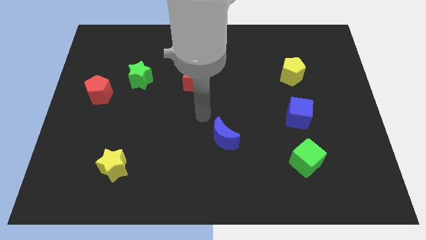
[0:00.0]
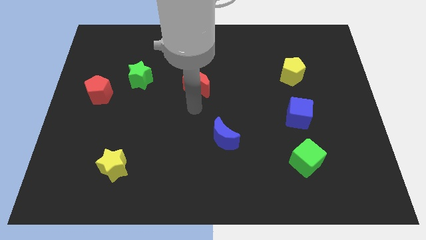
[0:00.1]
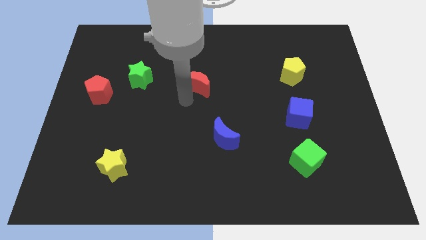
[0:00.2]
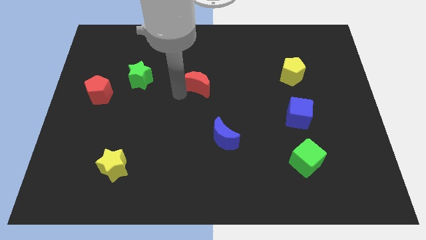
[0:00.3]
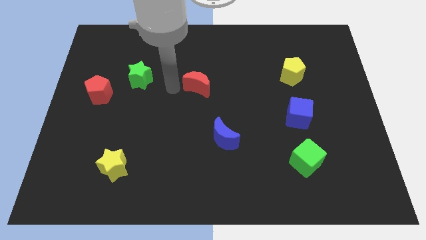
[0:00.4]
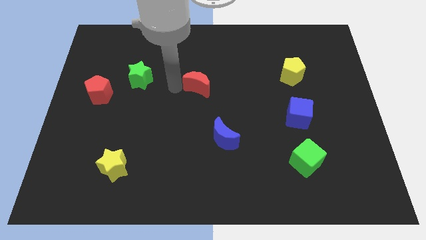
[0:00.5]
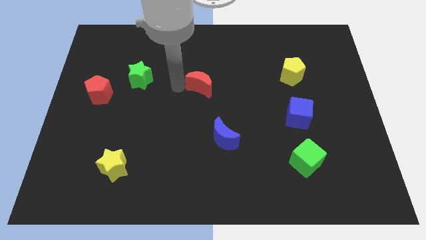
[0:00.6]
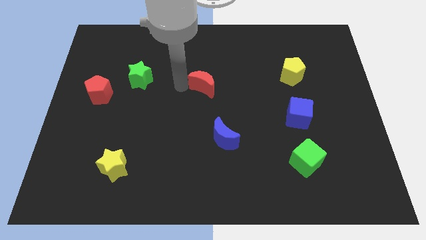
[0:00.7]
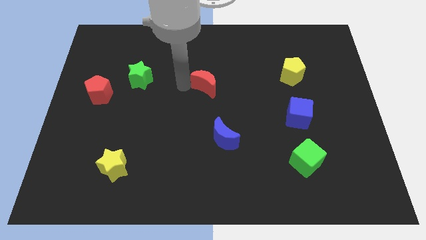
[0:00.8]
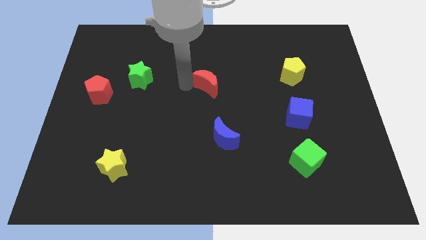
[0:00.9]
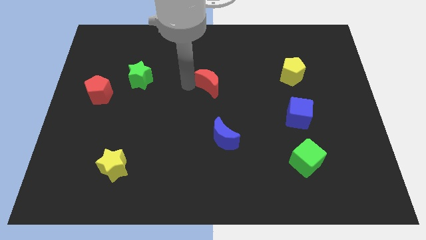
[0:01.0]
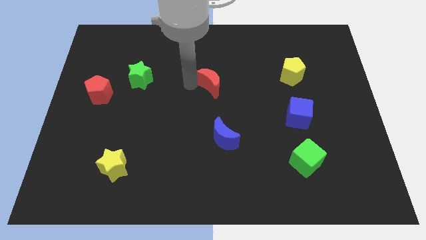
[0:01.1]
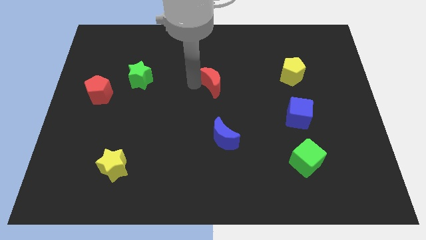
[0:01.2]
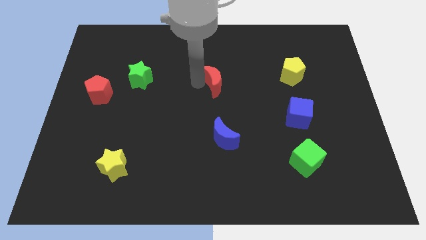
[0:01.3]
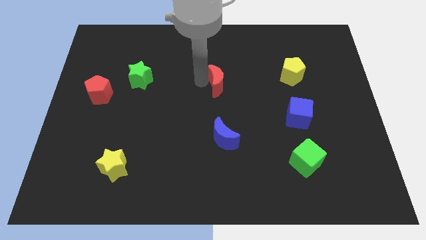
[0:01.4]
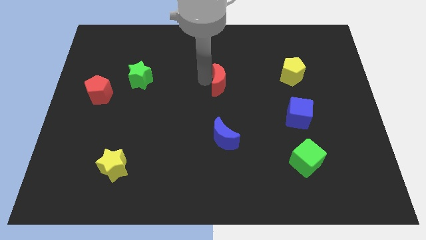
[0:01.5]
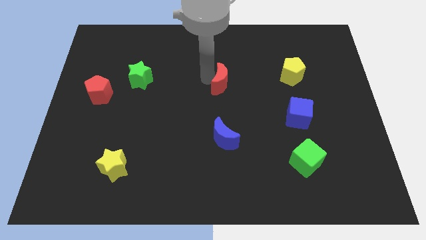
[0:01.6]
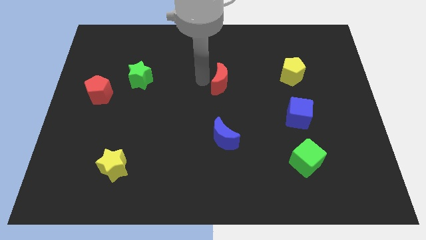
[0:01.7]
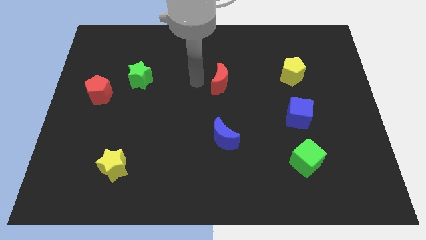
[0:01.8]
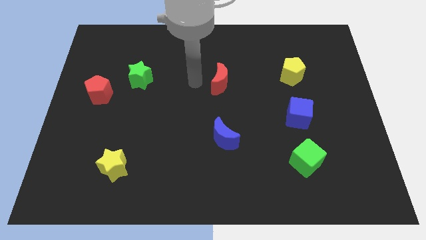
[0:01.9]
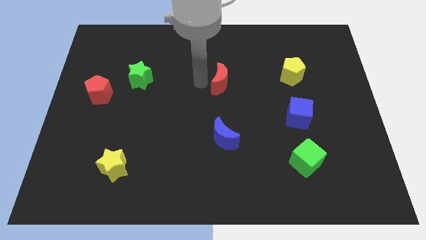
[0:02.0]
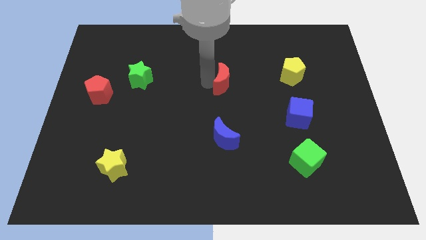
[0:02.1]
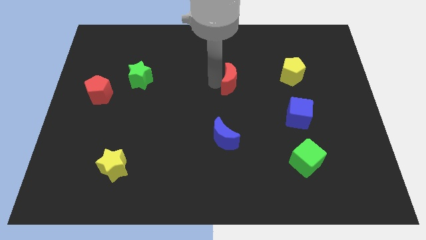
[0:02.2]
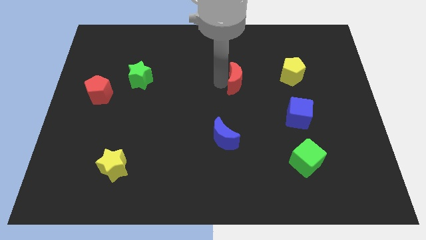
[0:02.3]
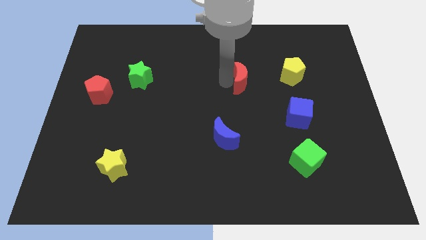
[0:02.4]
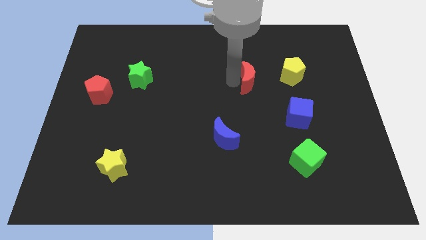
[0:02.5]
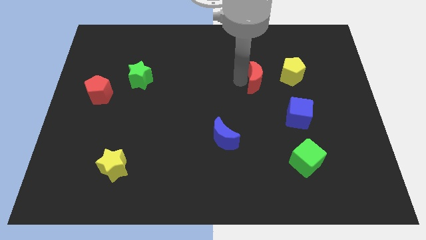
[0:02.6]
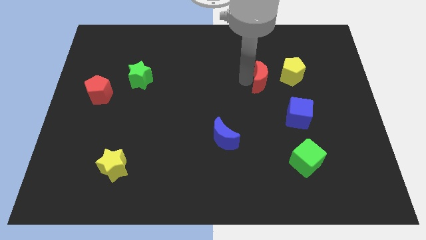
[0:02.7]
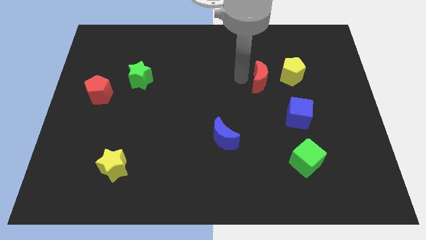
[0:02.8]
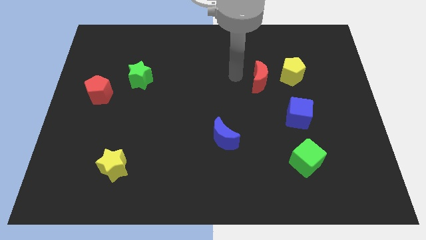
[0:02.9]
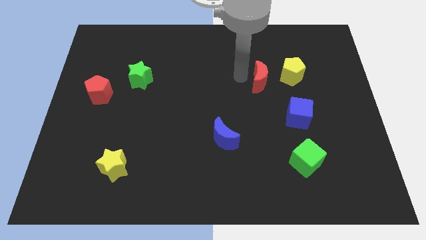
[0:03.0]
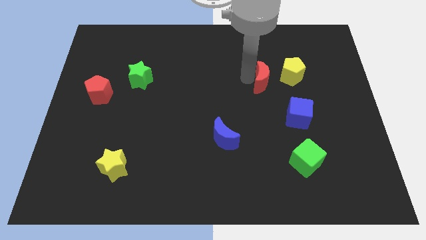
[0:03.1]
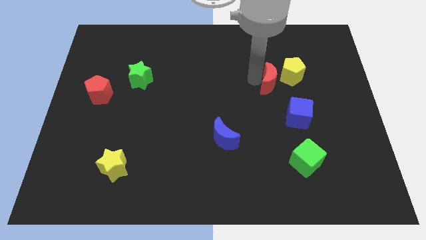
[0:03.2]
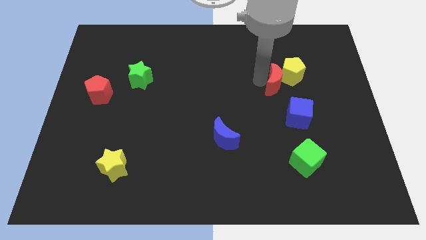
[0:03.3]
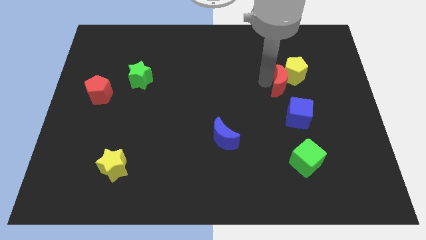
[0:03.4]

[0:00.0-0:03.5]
slide the red moon right

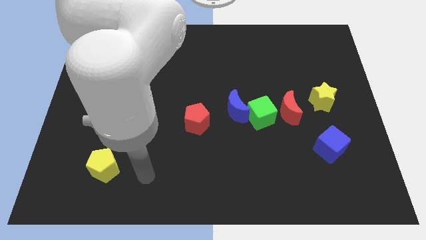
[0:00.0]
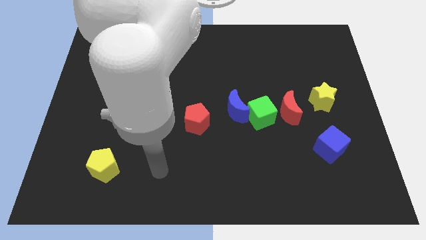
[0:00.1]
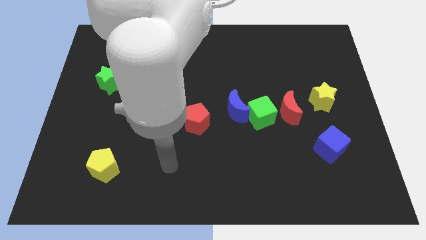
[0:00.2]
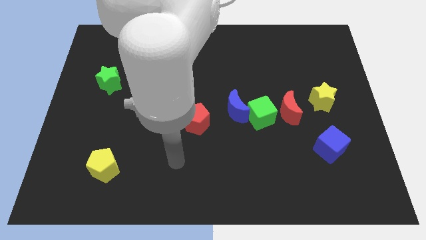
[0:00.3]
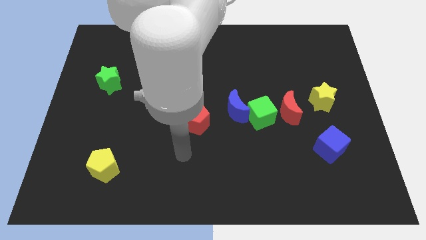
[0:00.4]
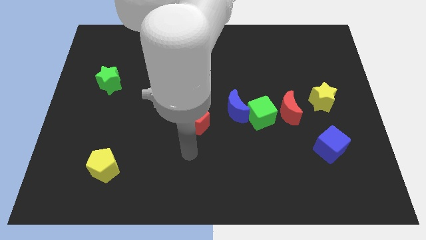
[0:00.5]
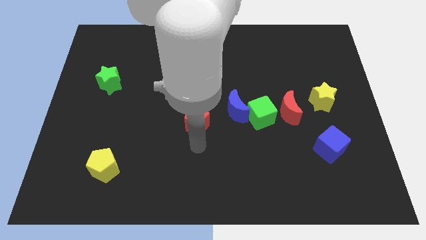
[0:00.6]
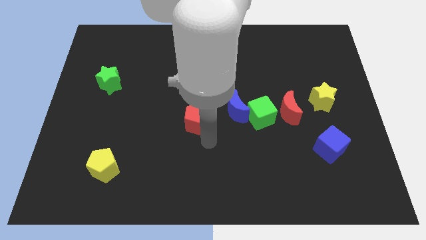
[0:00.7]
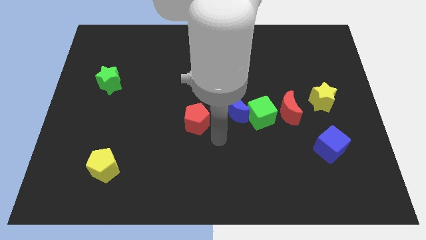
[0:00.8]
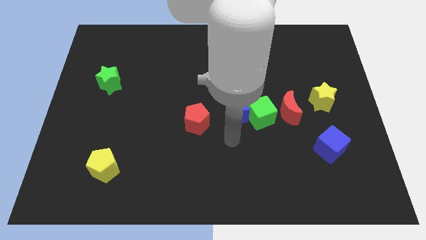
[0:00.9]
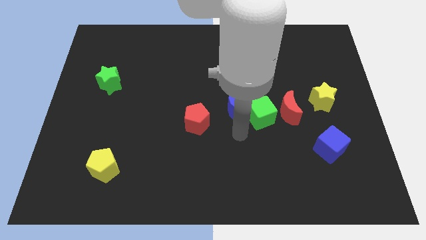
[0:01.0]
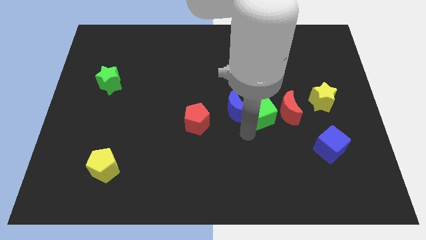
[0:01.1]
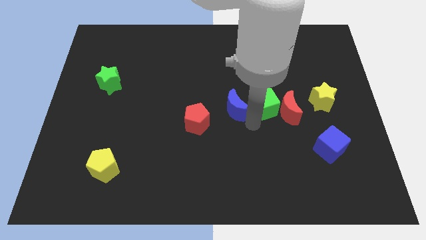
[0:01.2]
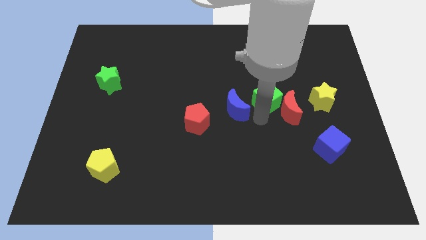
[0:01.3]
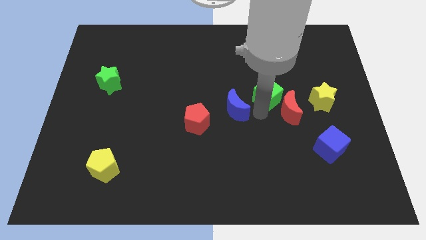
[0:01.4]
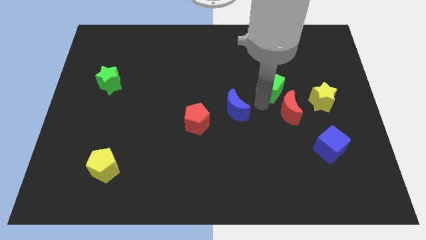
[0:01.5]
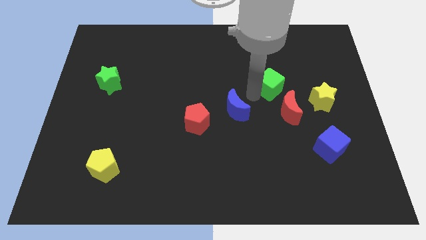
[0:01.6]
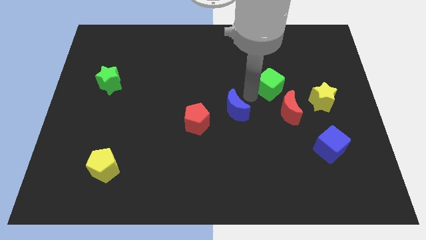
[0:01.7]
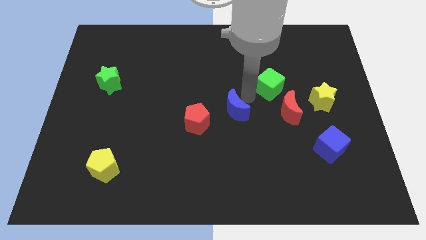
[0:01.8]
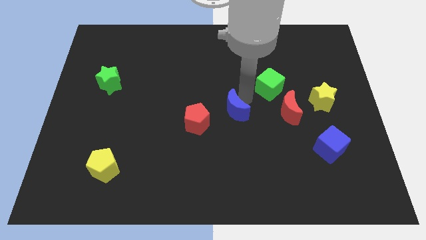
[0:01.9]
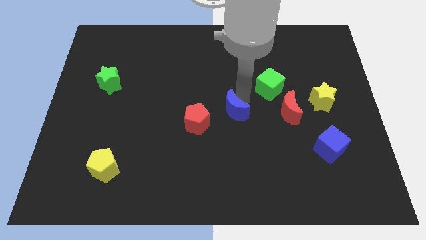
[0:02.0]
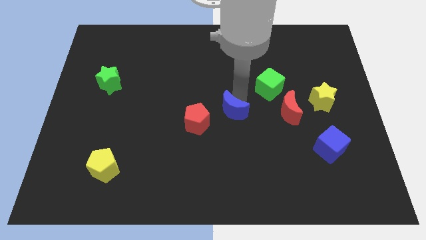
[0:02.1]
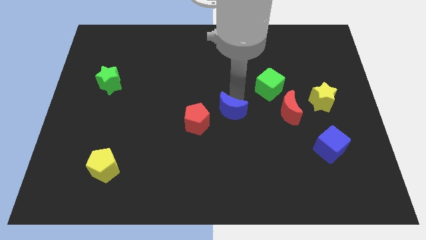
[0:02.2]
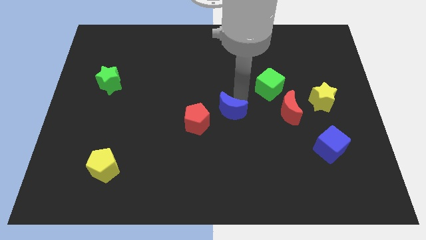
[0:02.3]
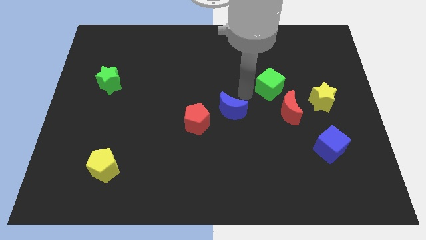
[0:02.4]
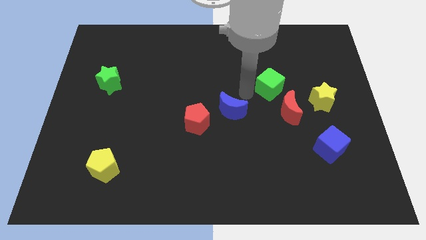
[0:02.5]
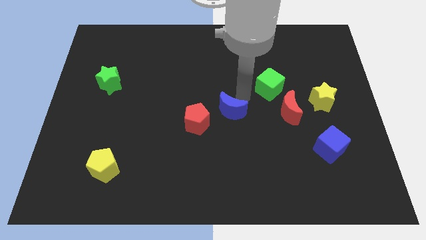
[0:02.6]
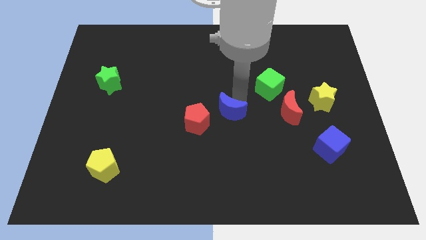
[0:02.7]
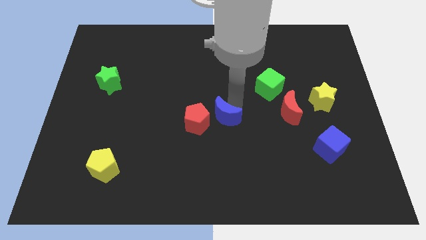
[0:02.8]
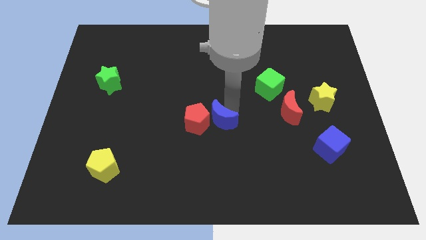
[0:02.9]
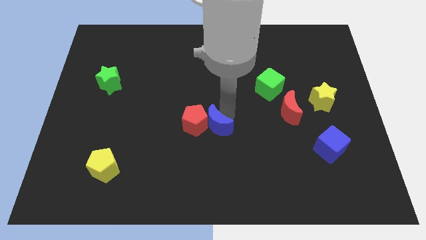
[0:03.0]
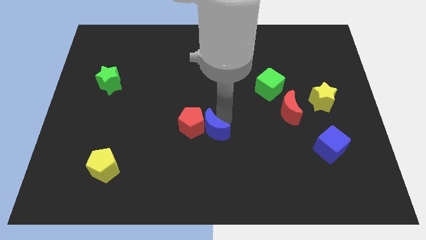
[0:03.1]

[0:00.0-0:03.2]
slide the blue moon a little bit down and to the left

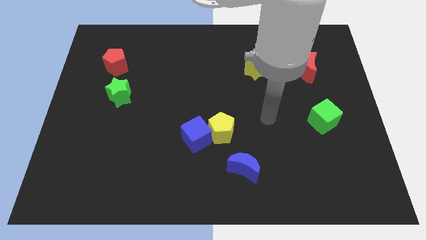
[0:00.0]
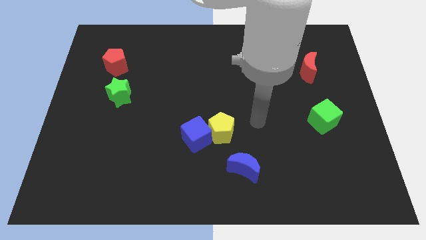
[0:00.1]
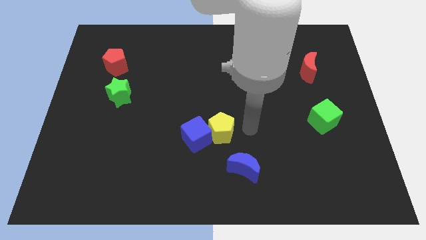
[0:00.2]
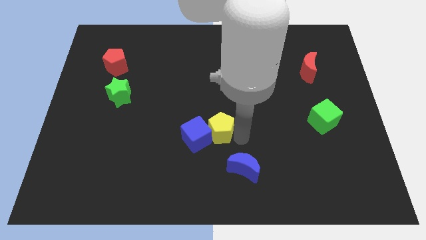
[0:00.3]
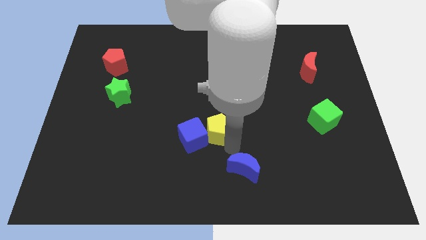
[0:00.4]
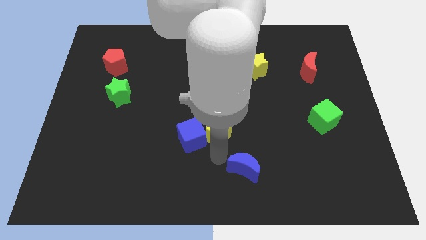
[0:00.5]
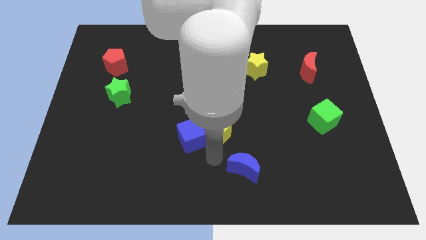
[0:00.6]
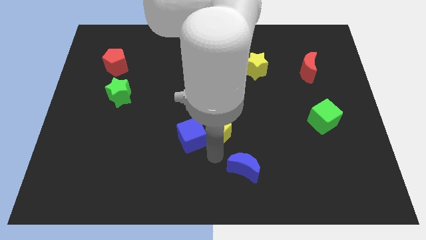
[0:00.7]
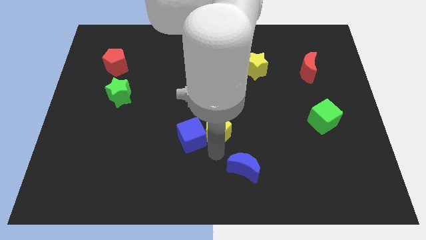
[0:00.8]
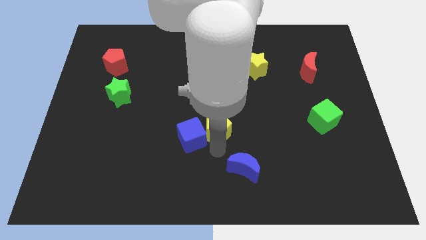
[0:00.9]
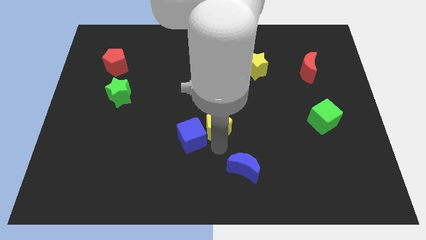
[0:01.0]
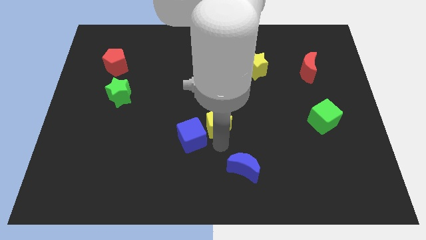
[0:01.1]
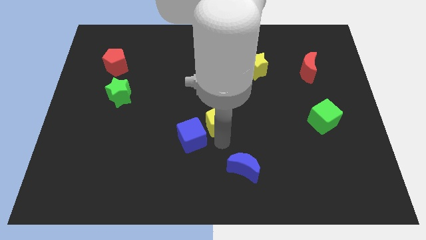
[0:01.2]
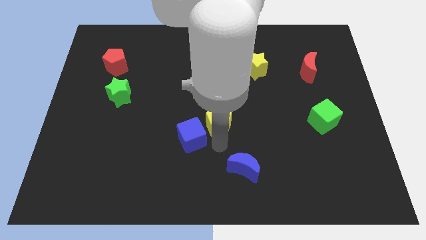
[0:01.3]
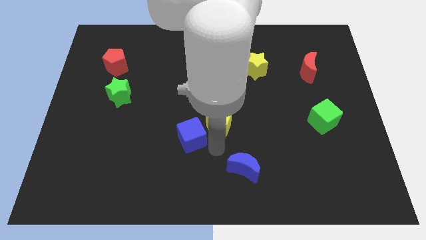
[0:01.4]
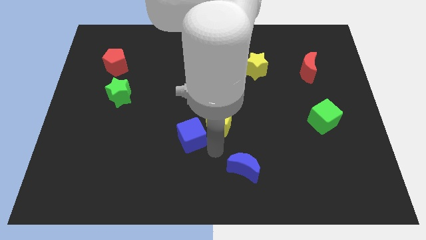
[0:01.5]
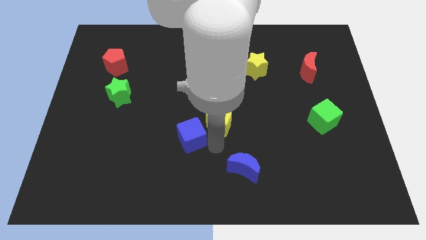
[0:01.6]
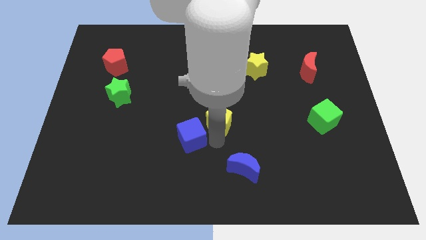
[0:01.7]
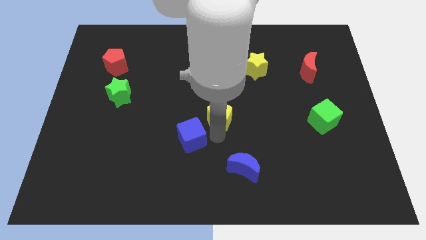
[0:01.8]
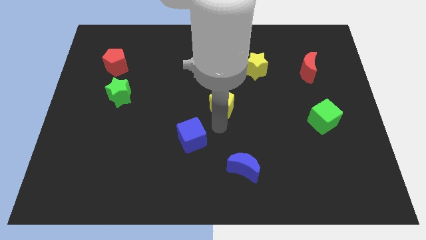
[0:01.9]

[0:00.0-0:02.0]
push the yellow pentagon a bit up
